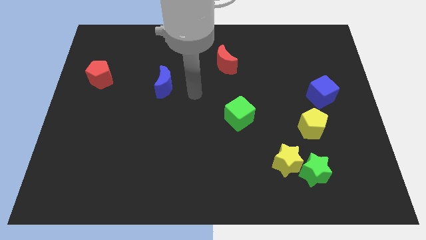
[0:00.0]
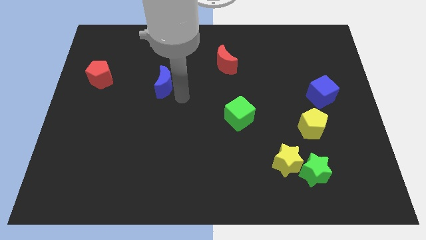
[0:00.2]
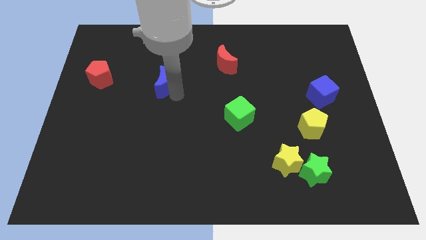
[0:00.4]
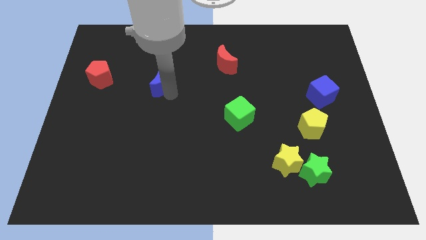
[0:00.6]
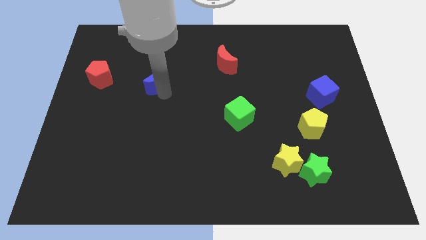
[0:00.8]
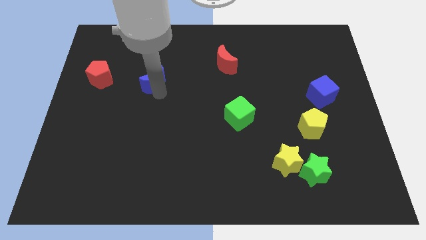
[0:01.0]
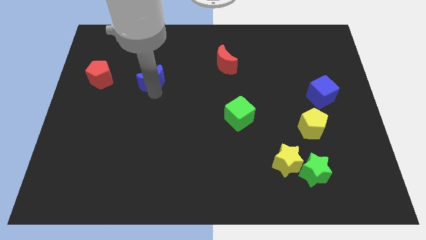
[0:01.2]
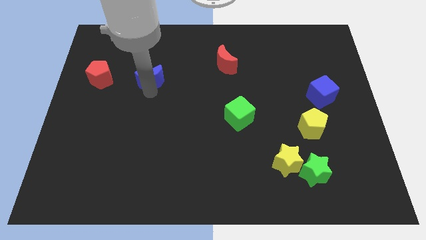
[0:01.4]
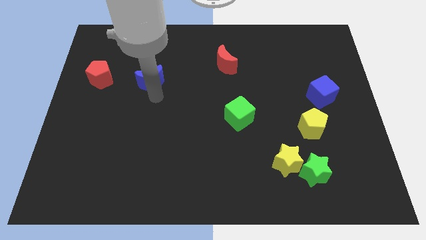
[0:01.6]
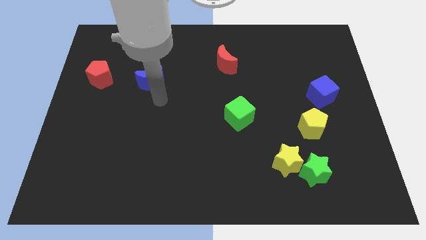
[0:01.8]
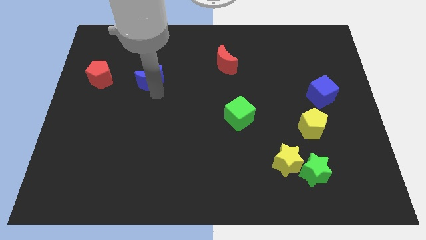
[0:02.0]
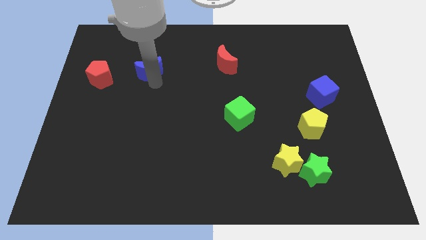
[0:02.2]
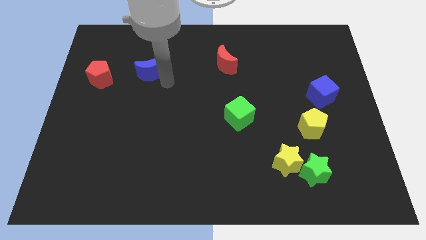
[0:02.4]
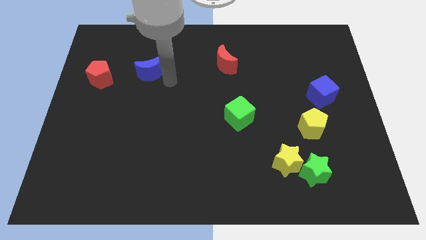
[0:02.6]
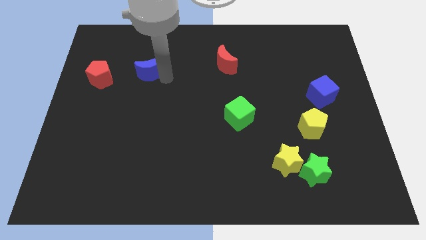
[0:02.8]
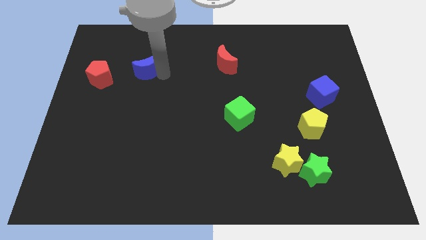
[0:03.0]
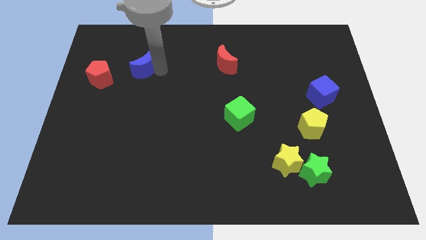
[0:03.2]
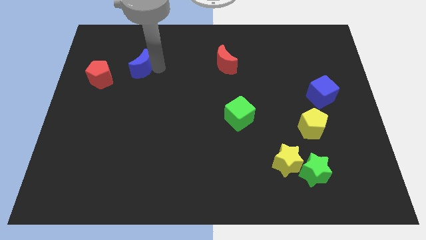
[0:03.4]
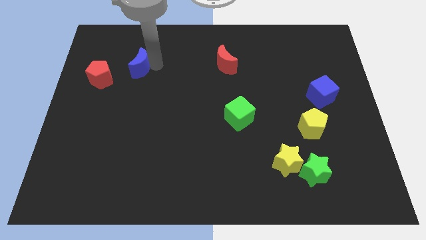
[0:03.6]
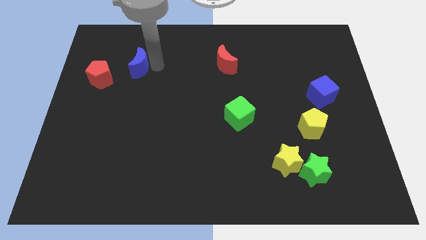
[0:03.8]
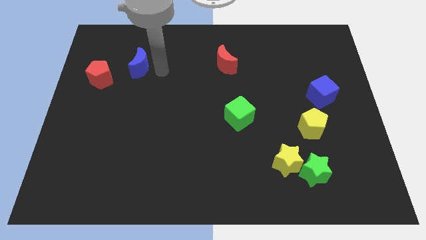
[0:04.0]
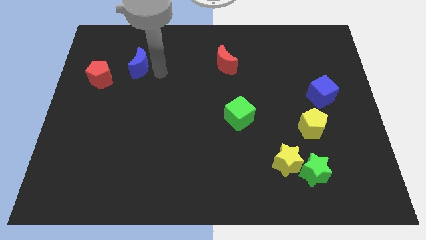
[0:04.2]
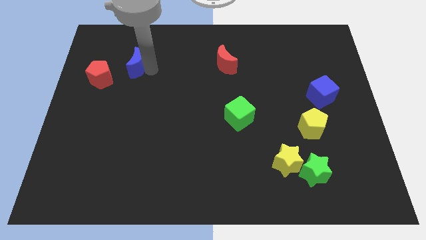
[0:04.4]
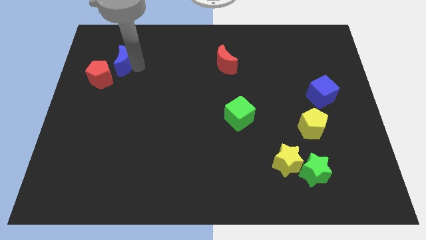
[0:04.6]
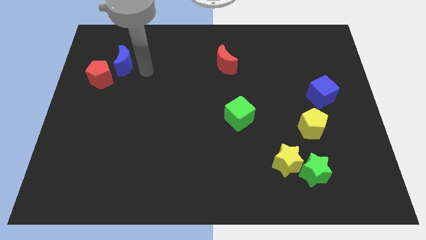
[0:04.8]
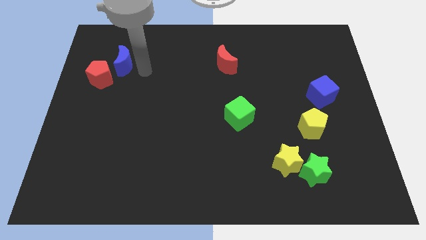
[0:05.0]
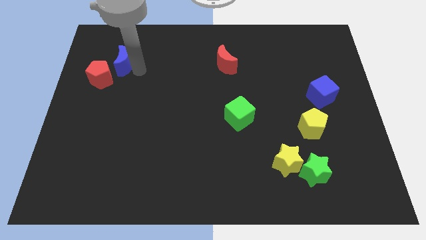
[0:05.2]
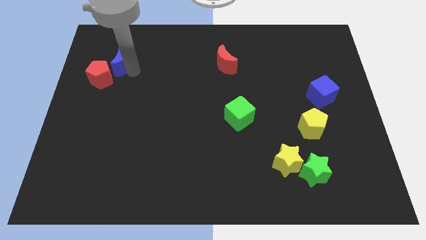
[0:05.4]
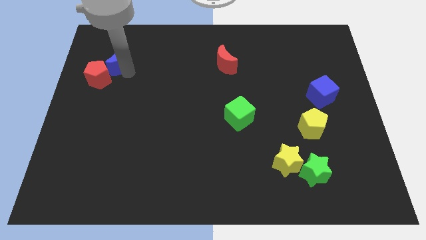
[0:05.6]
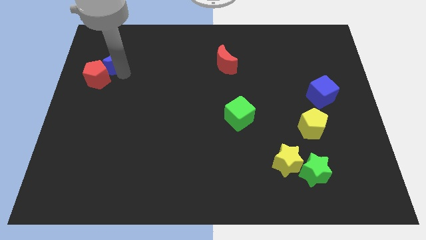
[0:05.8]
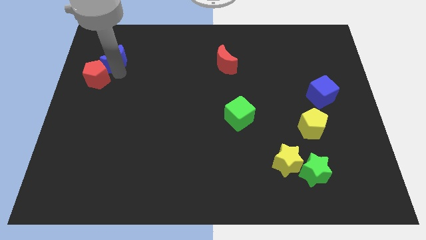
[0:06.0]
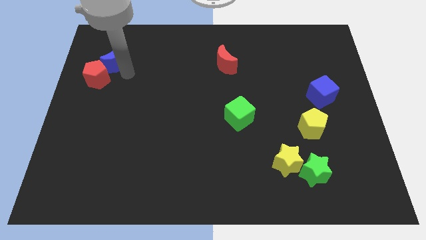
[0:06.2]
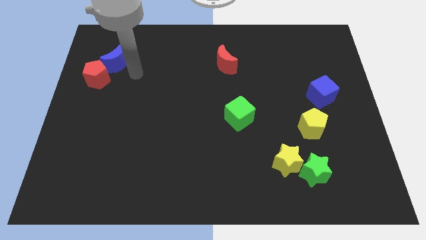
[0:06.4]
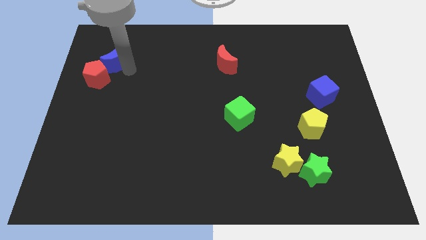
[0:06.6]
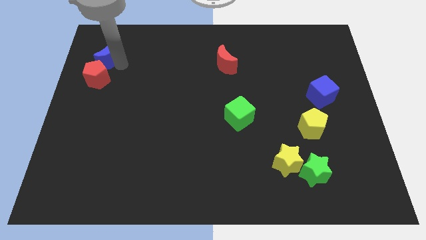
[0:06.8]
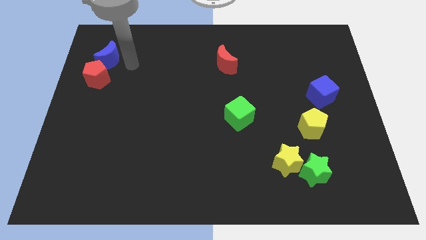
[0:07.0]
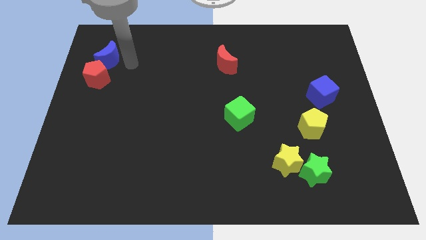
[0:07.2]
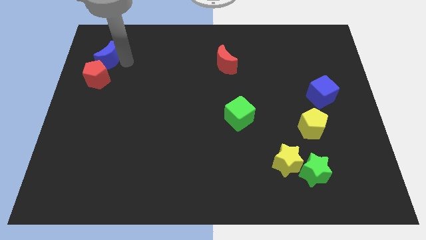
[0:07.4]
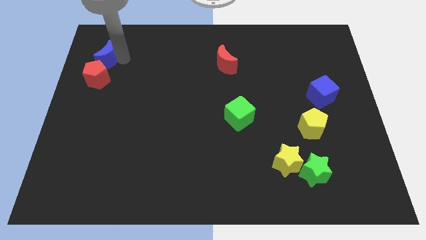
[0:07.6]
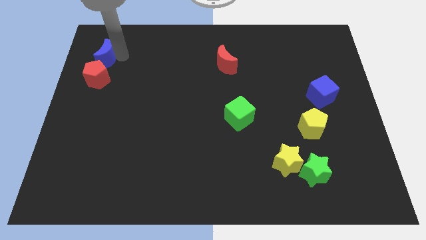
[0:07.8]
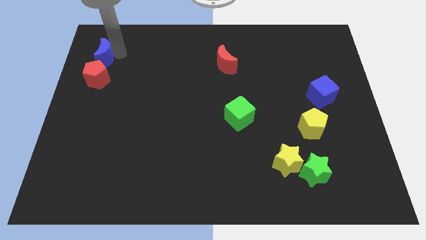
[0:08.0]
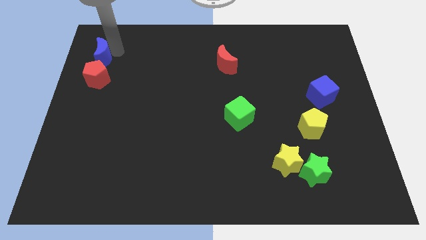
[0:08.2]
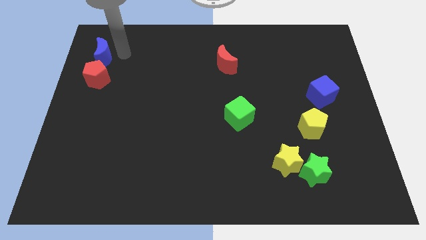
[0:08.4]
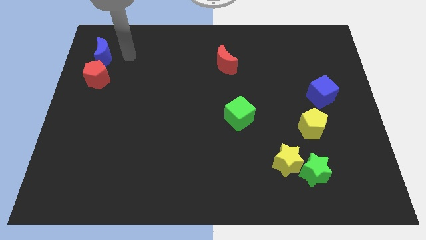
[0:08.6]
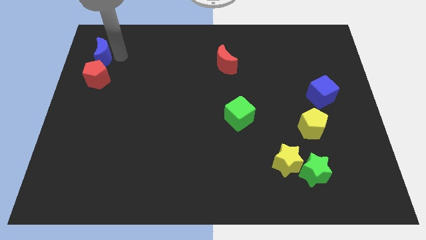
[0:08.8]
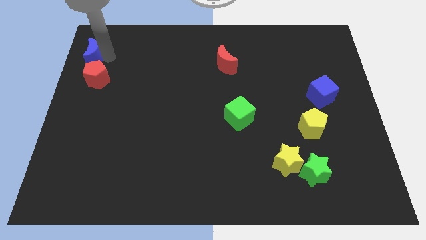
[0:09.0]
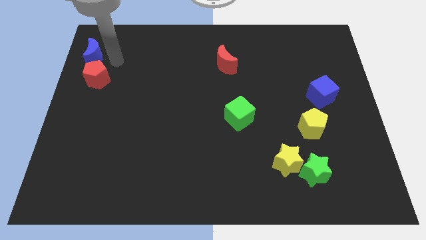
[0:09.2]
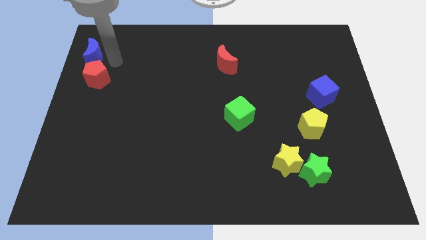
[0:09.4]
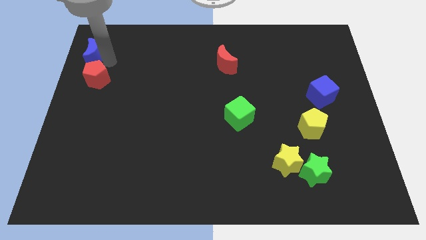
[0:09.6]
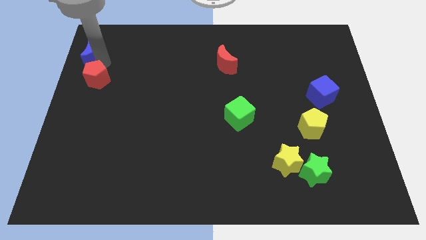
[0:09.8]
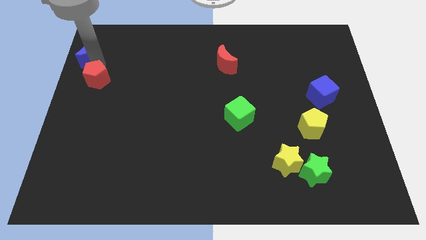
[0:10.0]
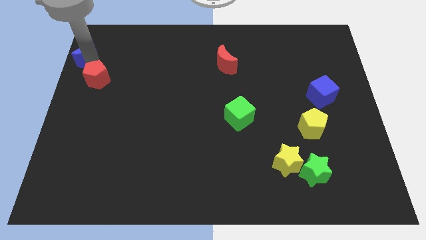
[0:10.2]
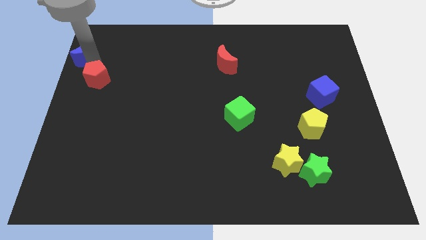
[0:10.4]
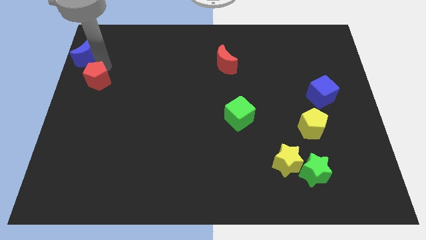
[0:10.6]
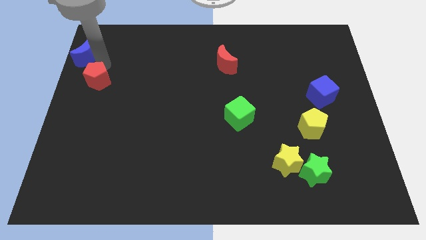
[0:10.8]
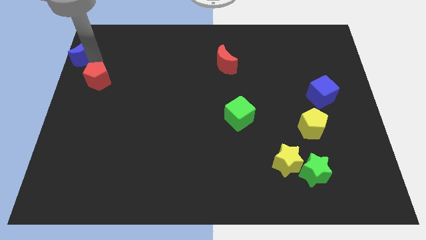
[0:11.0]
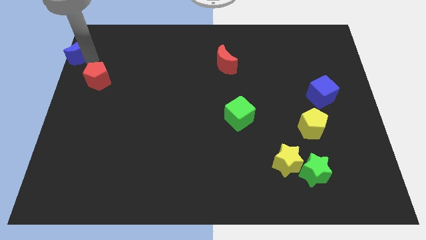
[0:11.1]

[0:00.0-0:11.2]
put the blue moon to the top left corner

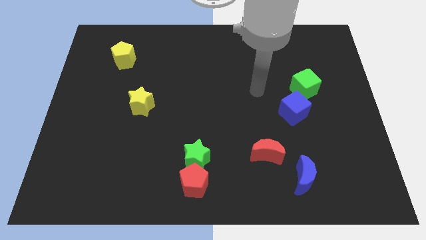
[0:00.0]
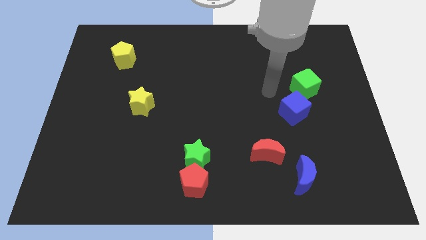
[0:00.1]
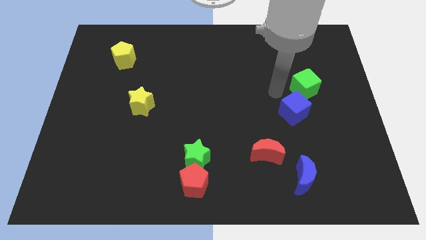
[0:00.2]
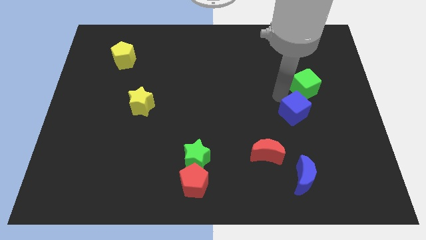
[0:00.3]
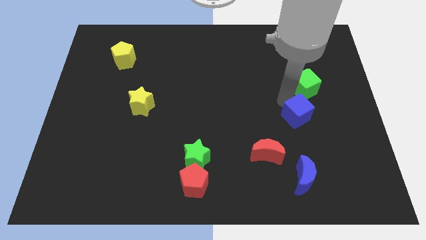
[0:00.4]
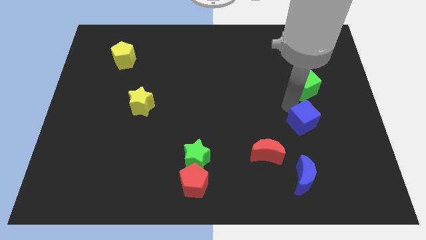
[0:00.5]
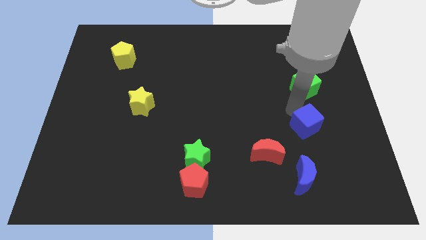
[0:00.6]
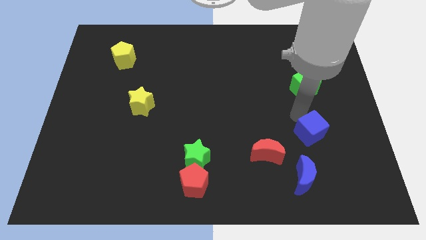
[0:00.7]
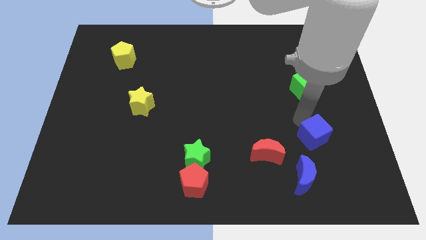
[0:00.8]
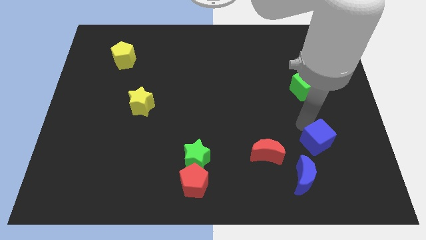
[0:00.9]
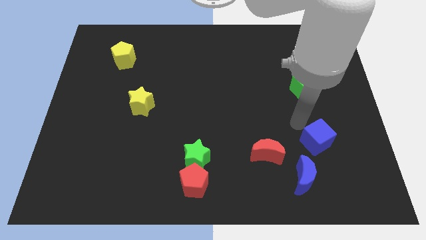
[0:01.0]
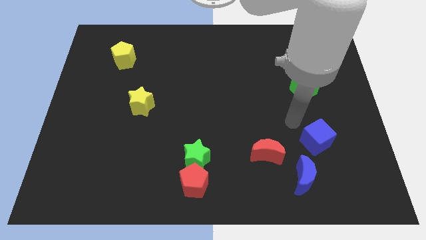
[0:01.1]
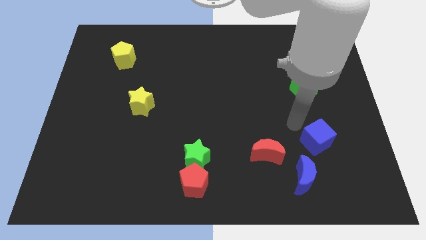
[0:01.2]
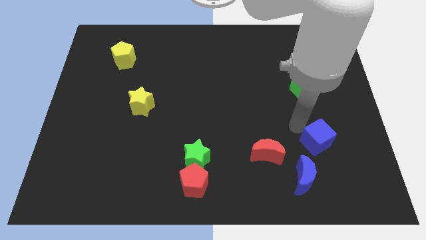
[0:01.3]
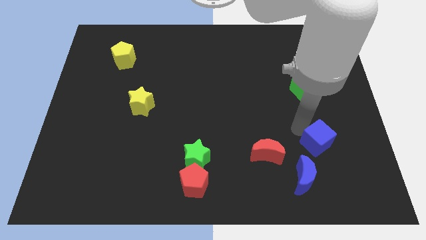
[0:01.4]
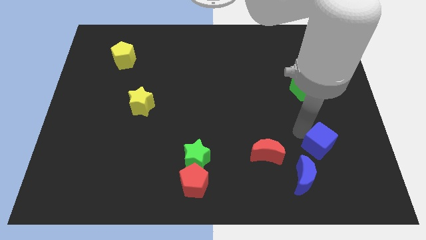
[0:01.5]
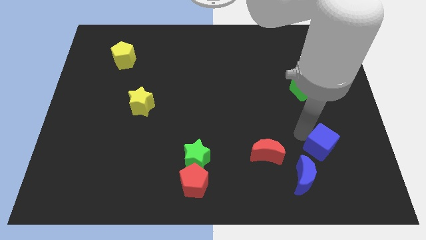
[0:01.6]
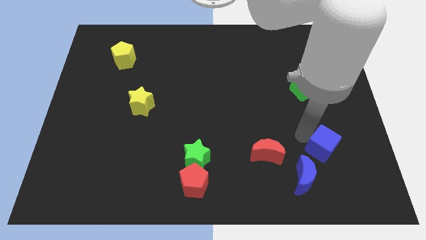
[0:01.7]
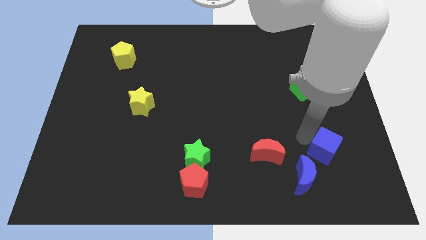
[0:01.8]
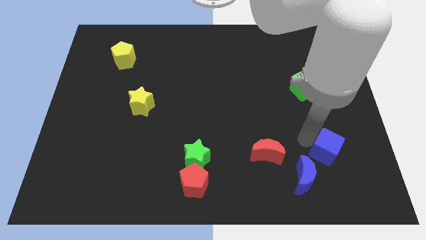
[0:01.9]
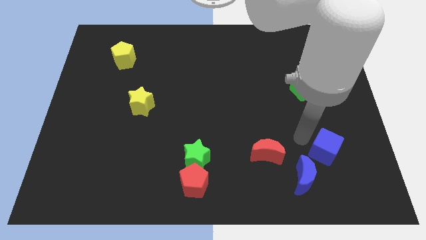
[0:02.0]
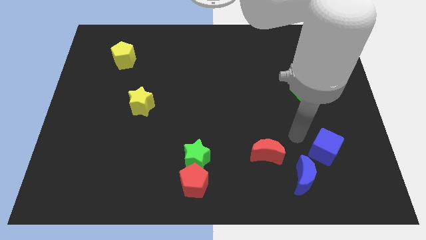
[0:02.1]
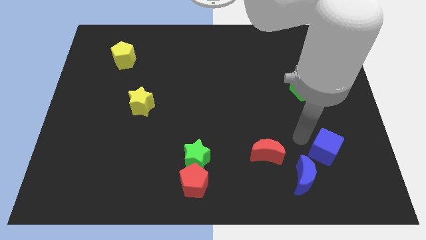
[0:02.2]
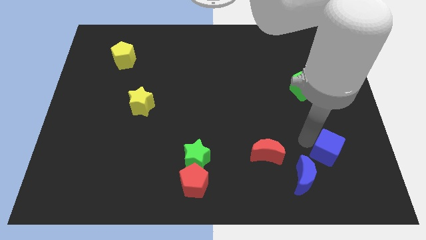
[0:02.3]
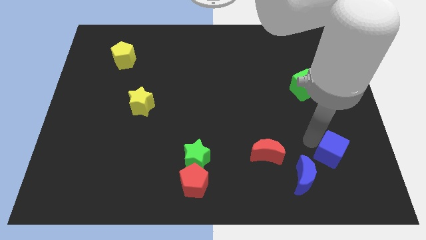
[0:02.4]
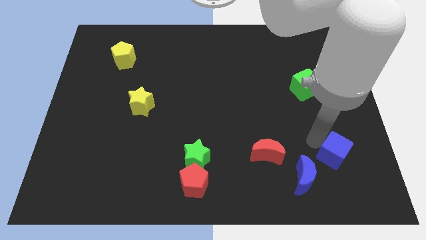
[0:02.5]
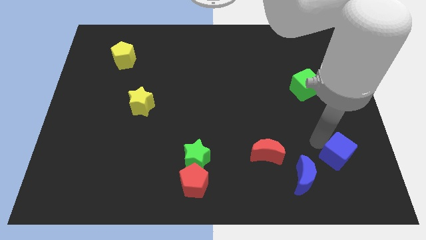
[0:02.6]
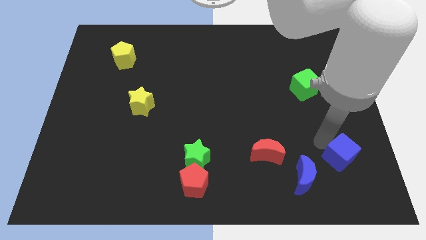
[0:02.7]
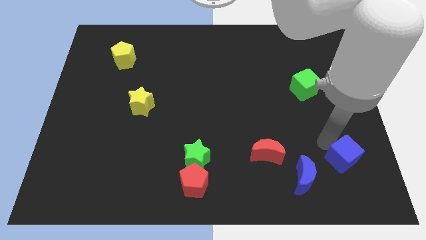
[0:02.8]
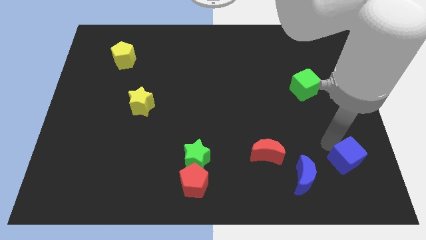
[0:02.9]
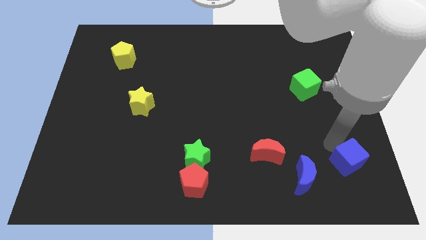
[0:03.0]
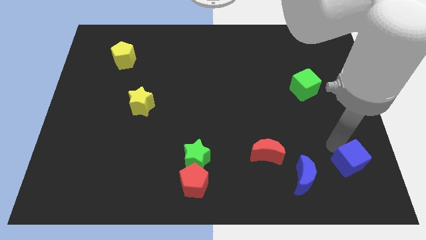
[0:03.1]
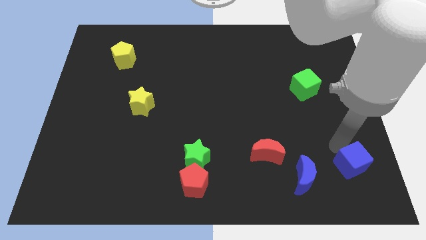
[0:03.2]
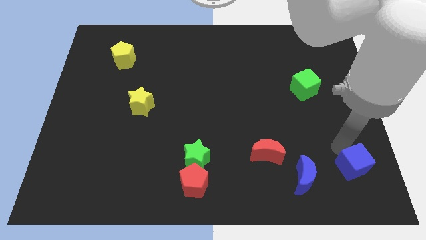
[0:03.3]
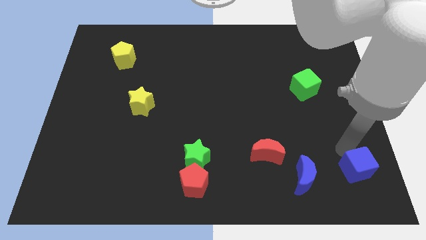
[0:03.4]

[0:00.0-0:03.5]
slide the blue cube to the lower right corner
